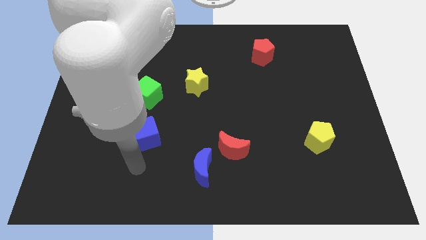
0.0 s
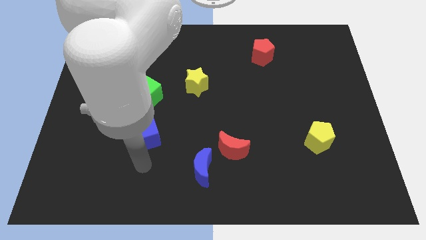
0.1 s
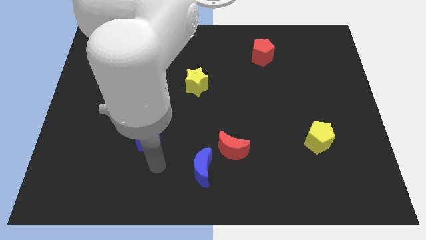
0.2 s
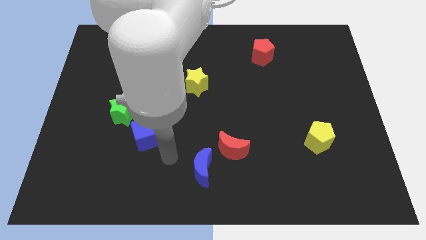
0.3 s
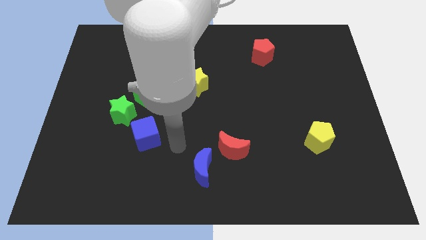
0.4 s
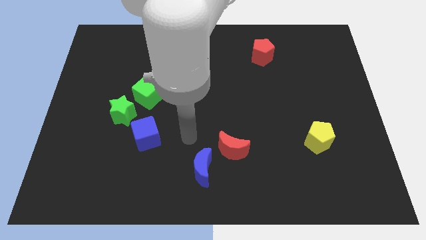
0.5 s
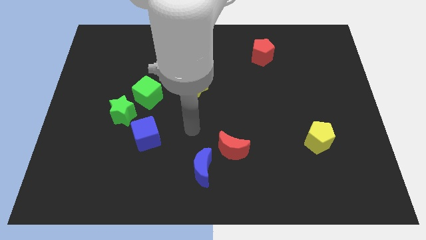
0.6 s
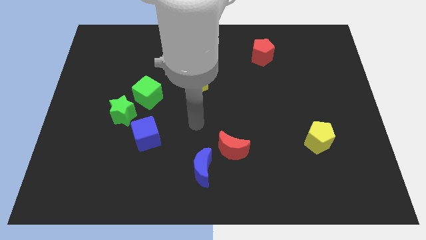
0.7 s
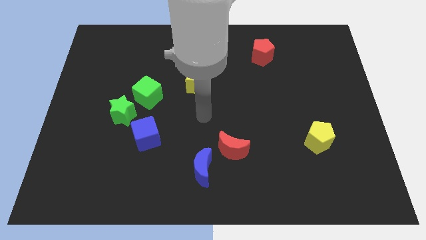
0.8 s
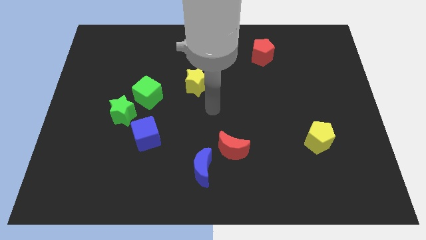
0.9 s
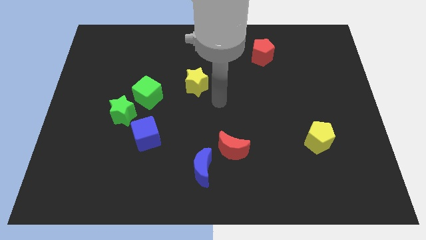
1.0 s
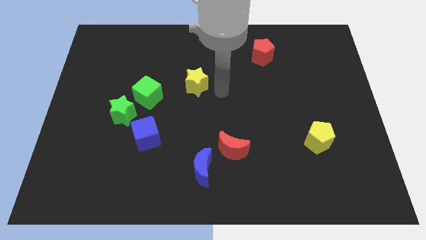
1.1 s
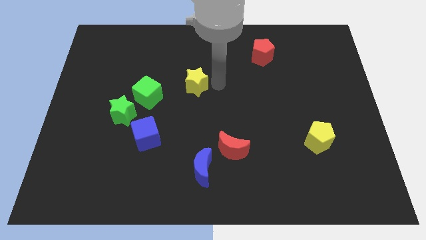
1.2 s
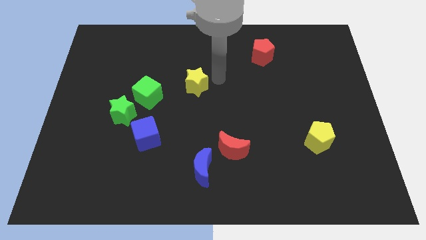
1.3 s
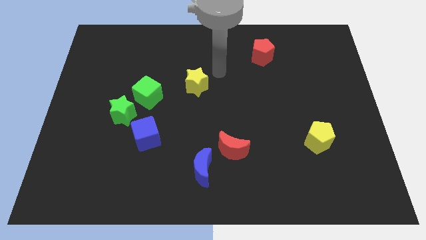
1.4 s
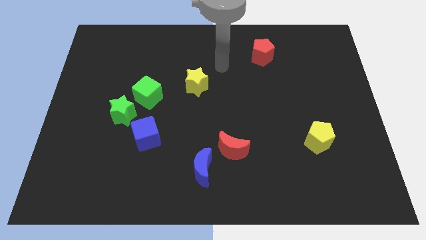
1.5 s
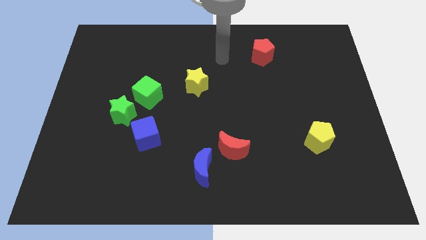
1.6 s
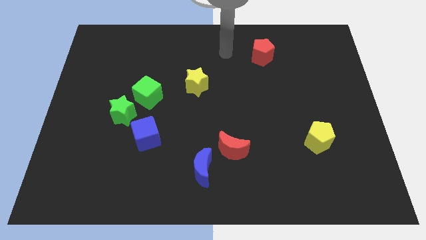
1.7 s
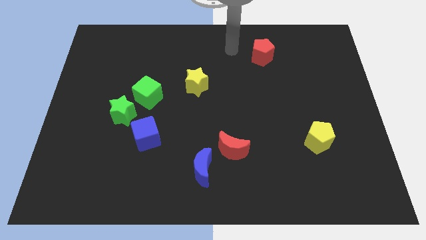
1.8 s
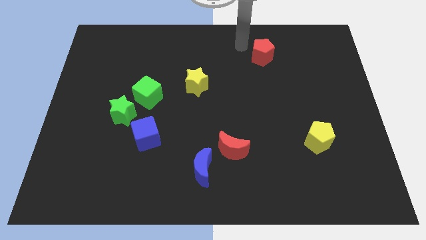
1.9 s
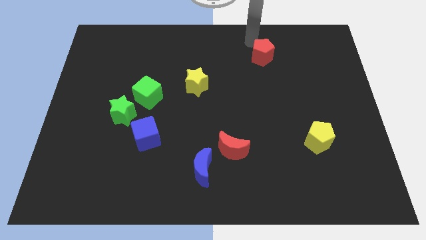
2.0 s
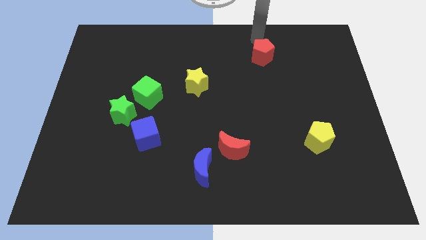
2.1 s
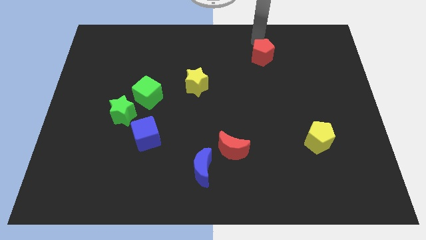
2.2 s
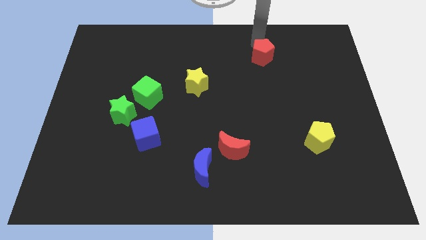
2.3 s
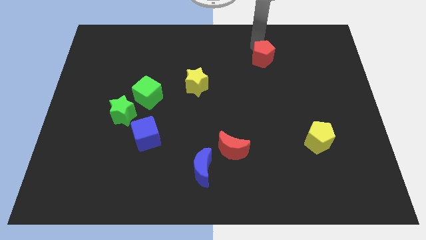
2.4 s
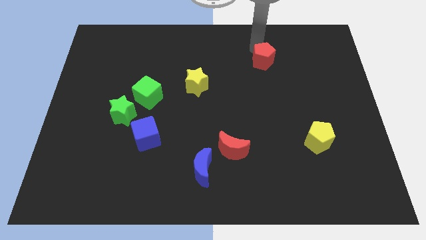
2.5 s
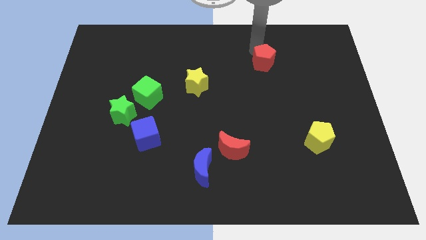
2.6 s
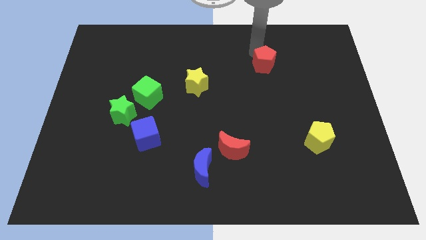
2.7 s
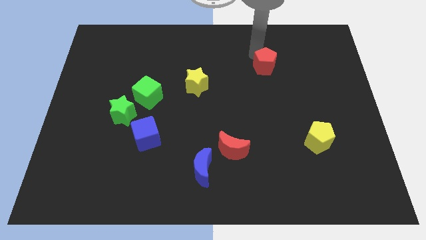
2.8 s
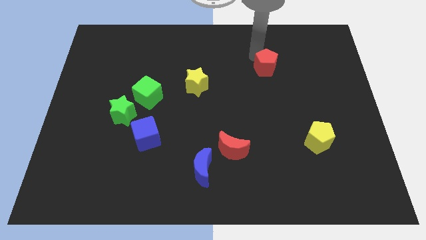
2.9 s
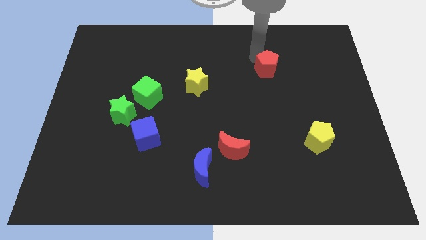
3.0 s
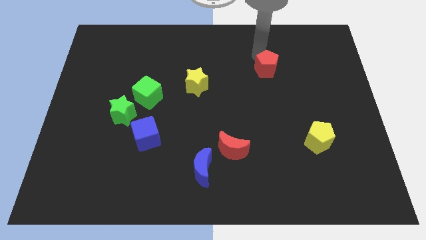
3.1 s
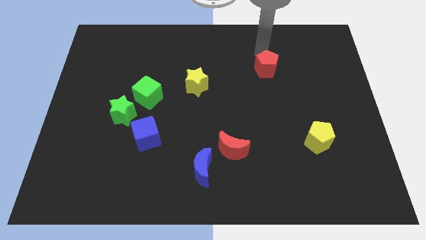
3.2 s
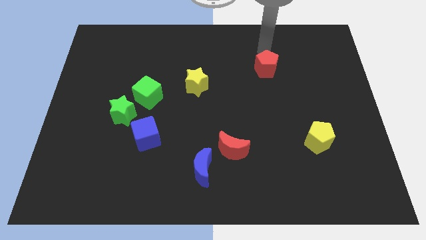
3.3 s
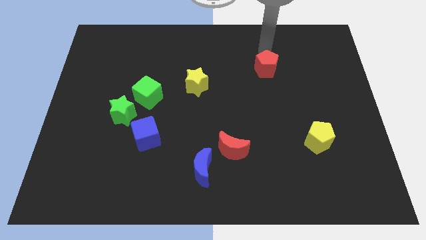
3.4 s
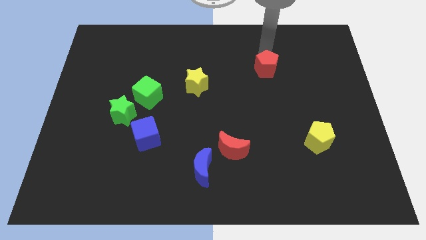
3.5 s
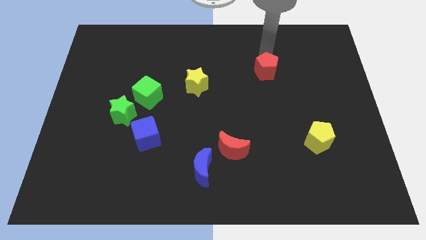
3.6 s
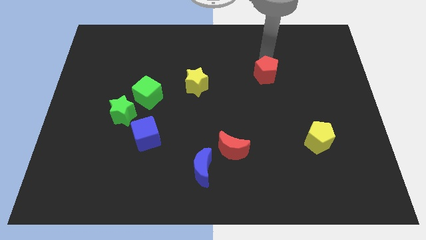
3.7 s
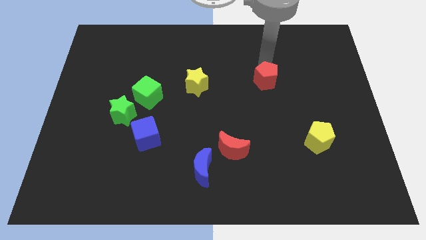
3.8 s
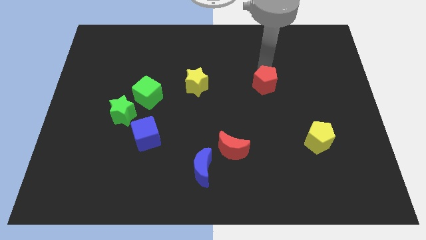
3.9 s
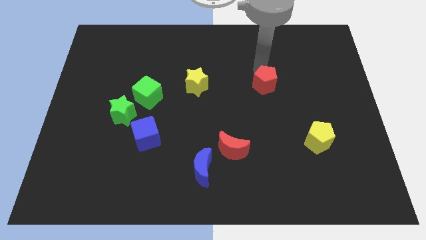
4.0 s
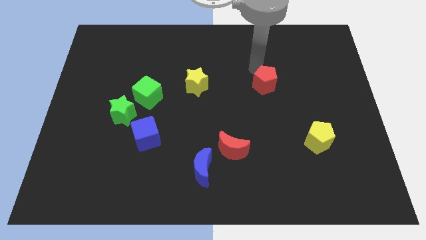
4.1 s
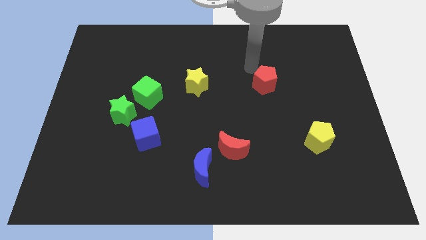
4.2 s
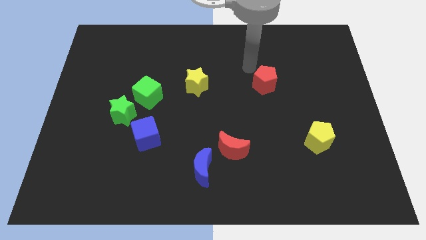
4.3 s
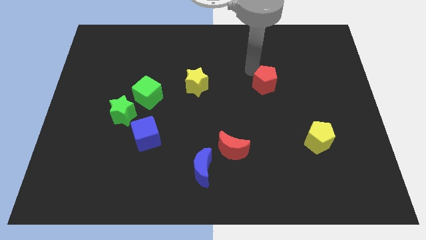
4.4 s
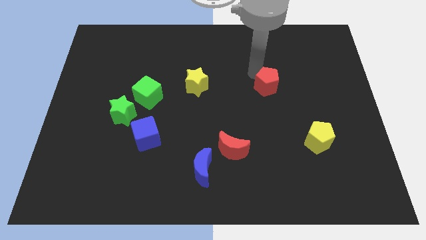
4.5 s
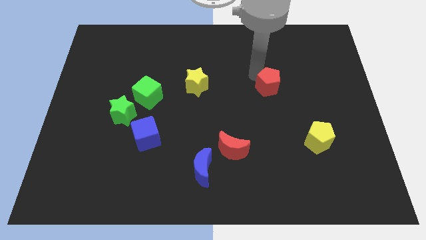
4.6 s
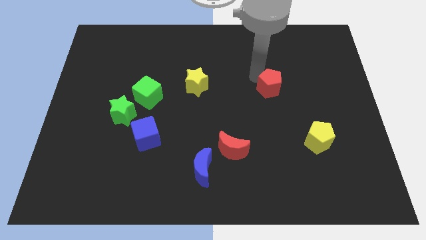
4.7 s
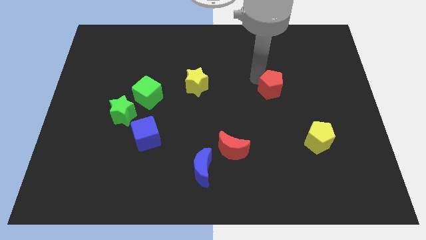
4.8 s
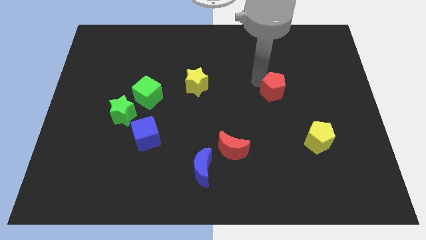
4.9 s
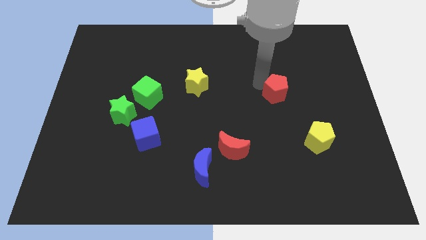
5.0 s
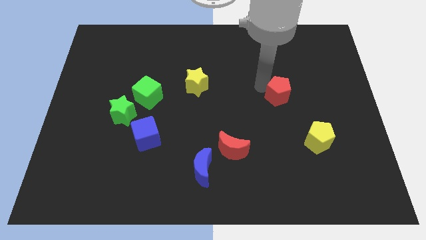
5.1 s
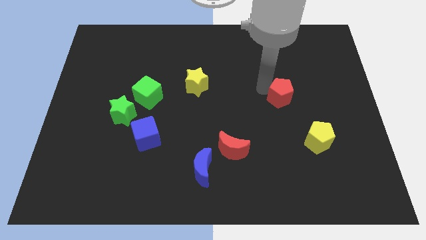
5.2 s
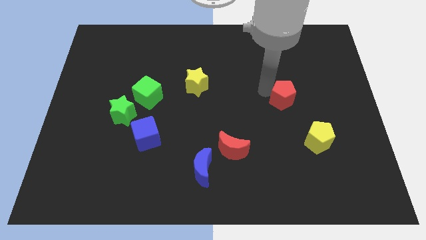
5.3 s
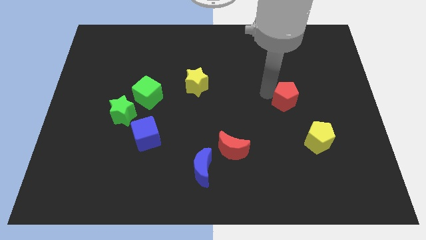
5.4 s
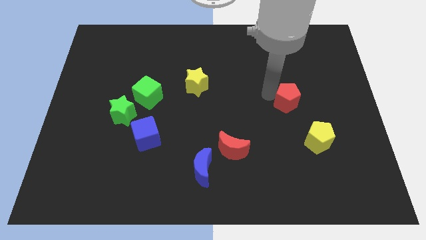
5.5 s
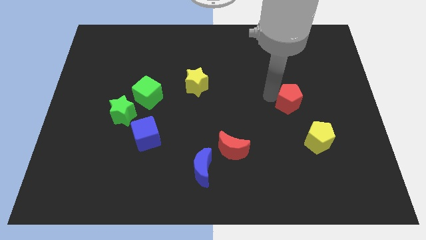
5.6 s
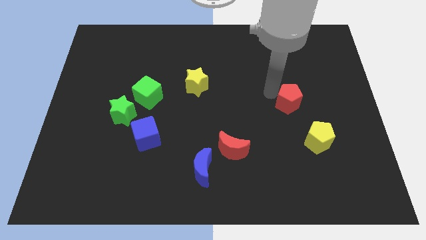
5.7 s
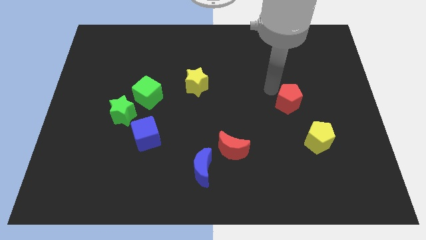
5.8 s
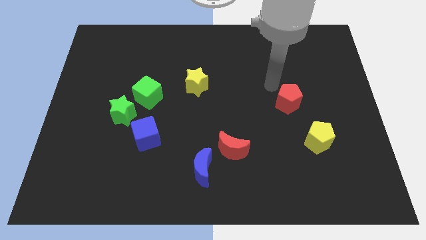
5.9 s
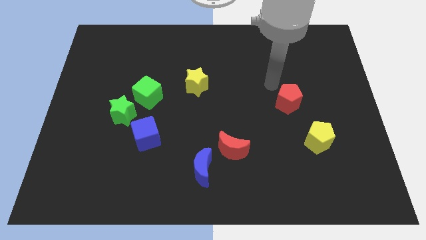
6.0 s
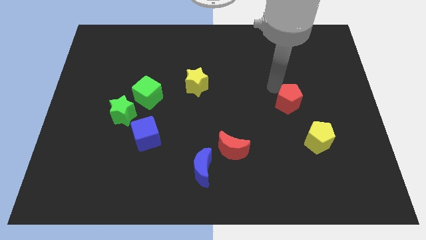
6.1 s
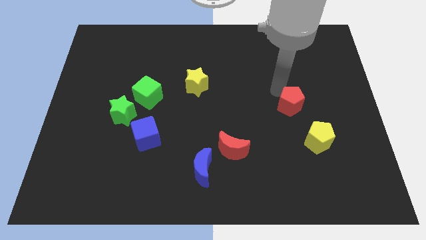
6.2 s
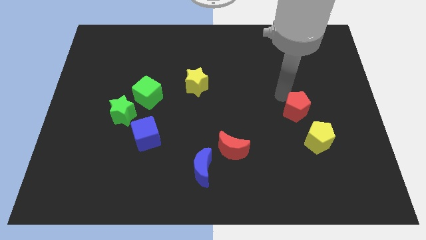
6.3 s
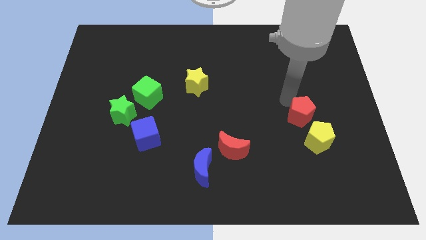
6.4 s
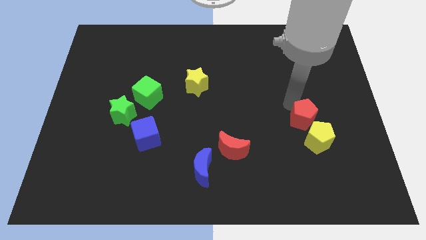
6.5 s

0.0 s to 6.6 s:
slide the red pentagon to the yellow pentagon

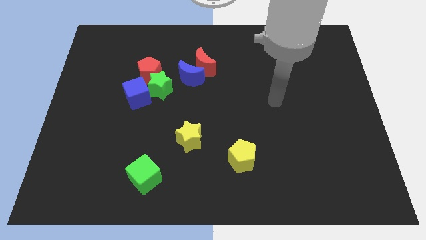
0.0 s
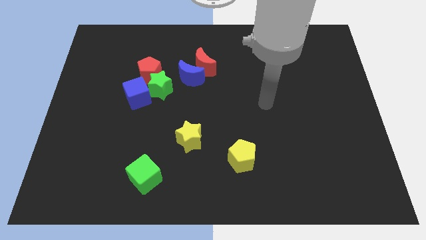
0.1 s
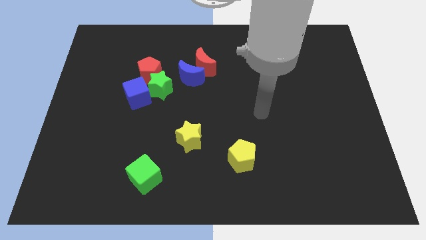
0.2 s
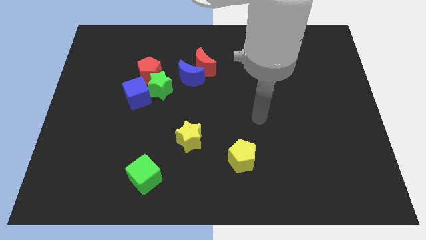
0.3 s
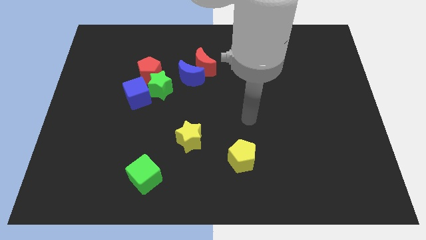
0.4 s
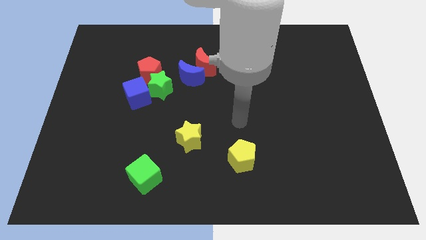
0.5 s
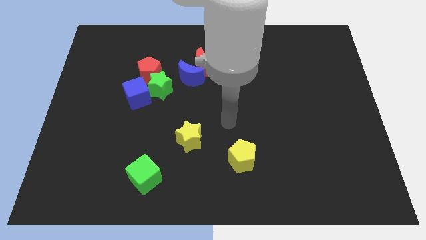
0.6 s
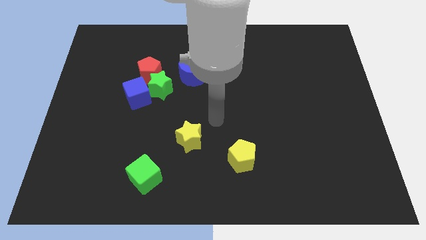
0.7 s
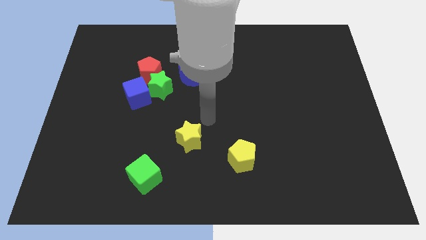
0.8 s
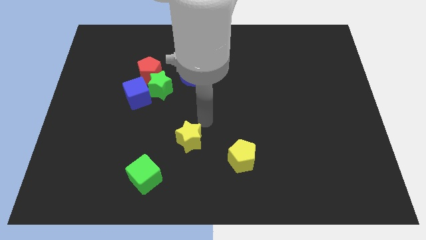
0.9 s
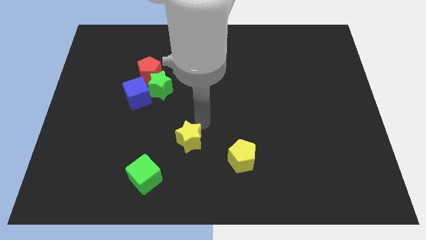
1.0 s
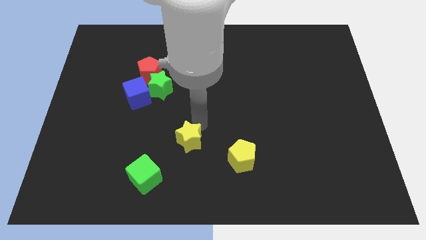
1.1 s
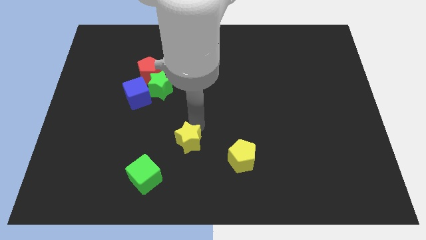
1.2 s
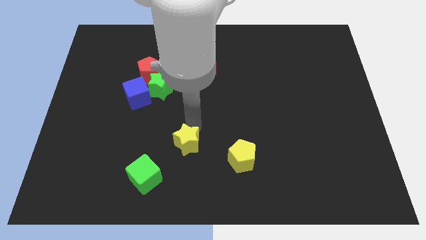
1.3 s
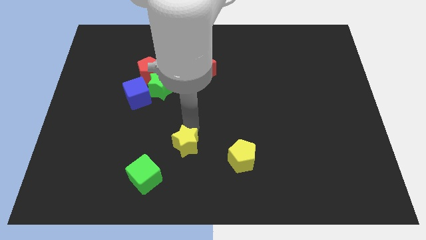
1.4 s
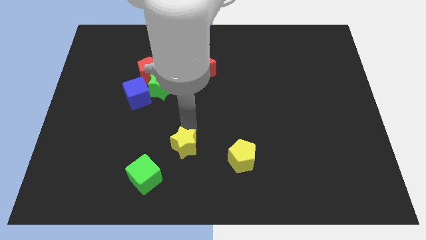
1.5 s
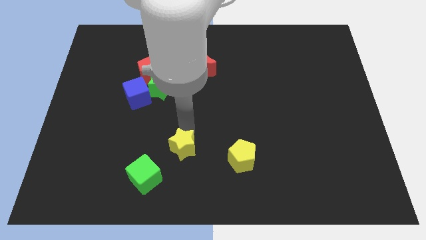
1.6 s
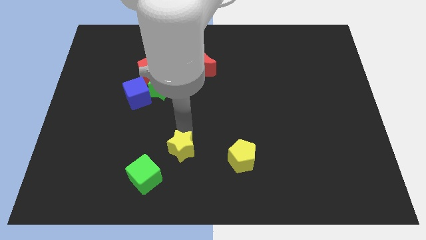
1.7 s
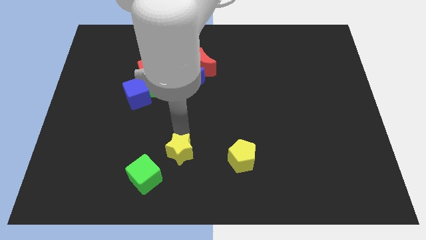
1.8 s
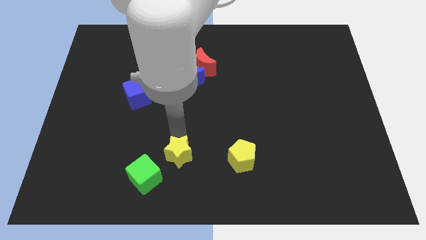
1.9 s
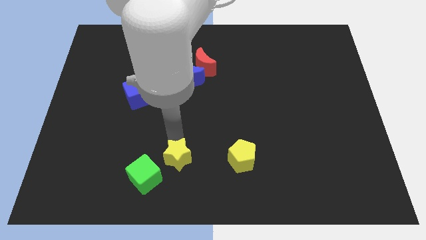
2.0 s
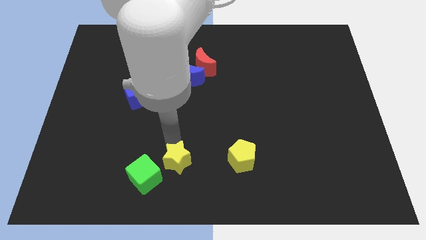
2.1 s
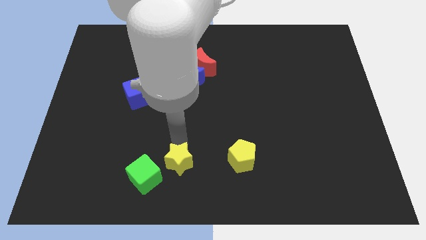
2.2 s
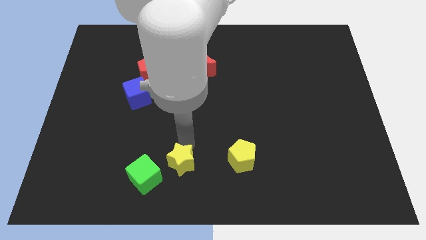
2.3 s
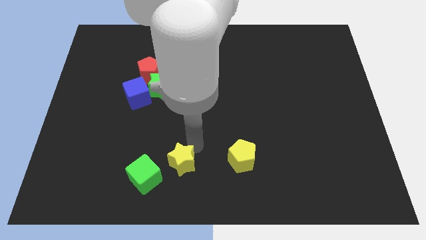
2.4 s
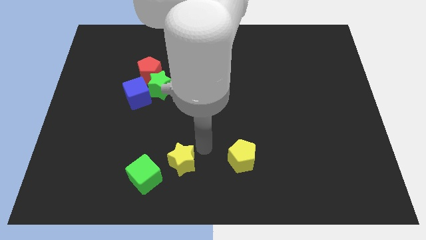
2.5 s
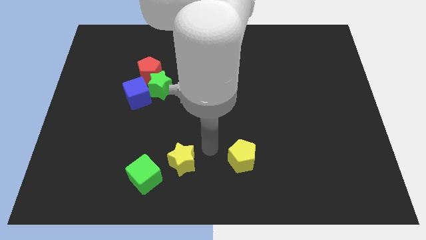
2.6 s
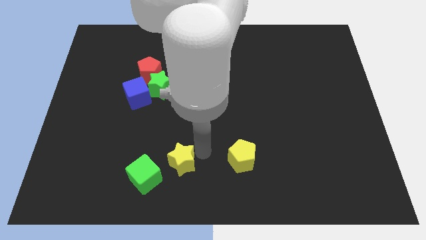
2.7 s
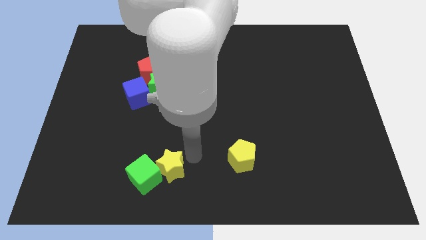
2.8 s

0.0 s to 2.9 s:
push the yellow star close to the green cube
